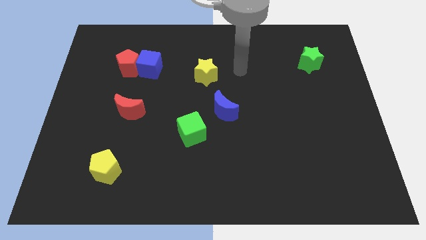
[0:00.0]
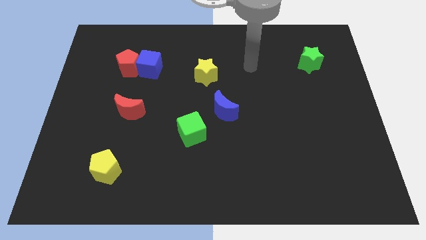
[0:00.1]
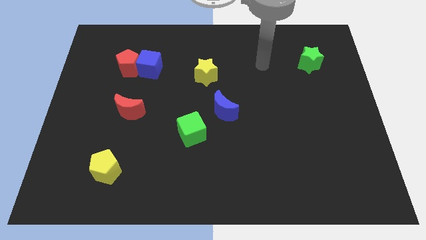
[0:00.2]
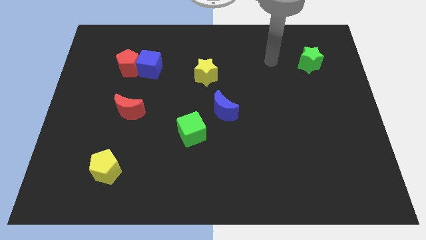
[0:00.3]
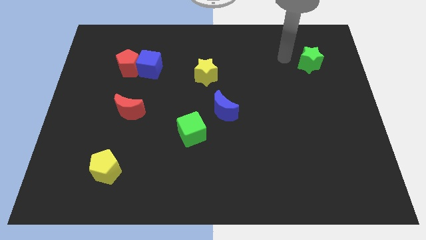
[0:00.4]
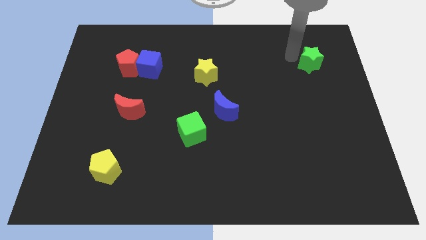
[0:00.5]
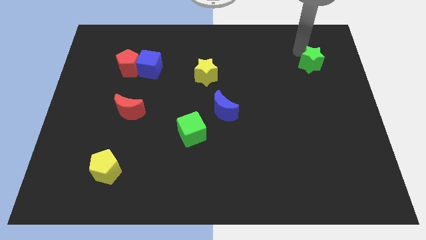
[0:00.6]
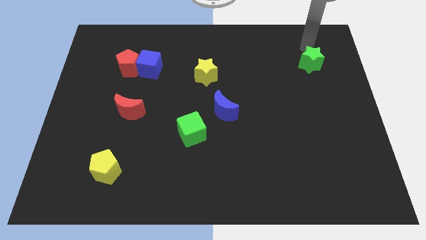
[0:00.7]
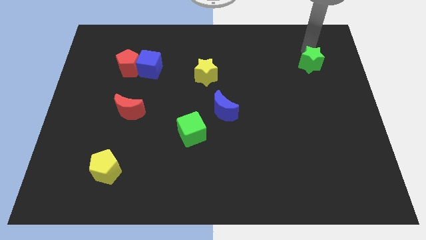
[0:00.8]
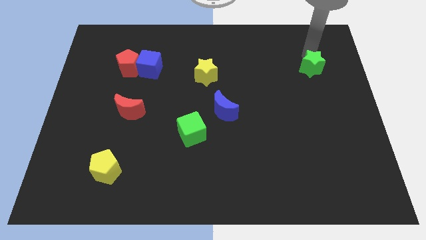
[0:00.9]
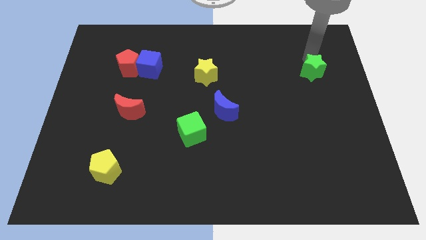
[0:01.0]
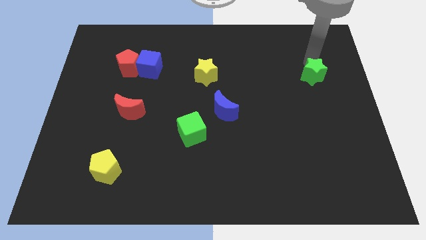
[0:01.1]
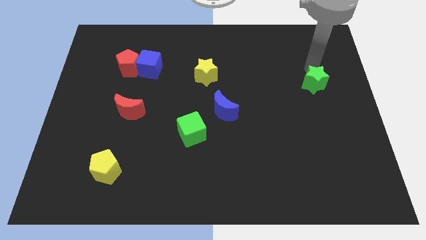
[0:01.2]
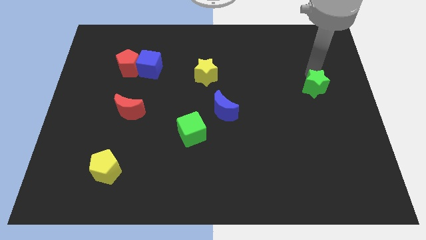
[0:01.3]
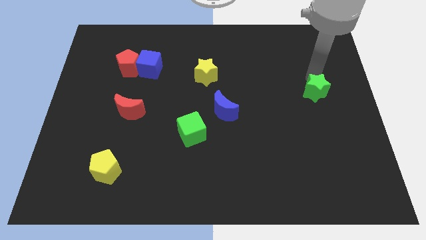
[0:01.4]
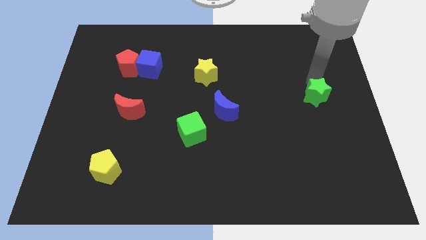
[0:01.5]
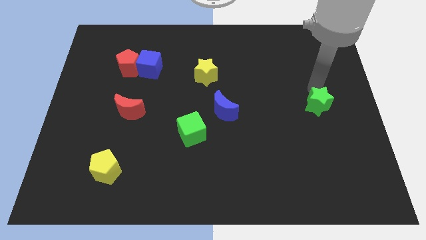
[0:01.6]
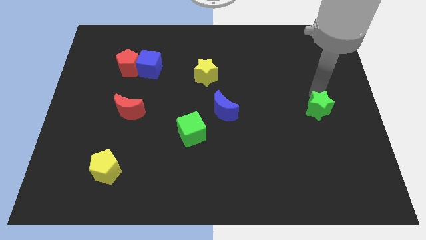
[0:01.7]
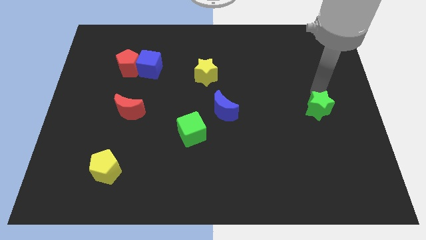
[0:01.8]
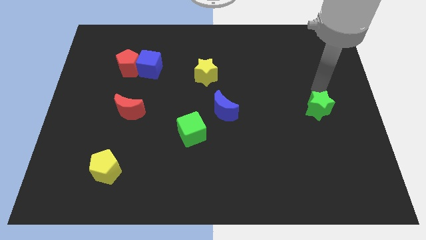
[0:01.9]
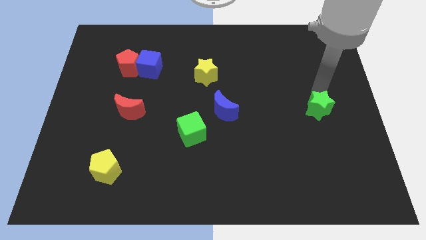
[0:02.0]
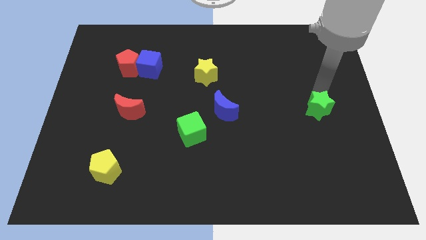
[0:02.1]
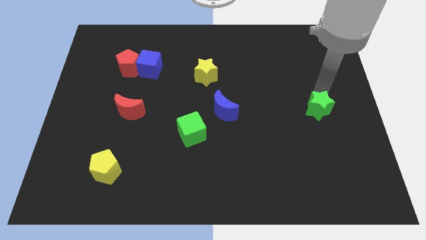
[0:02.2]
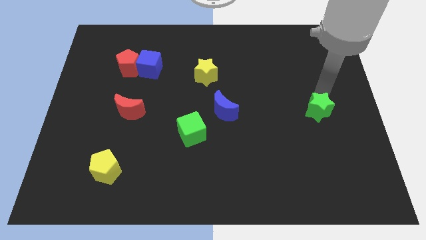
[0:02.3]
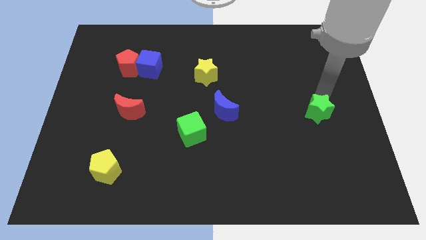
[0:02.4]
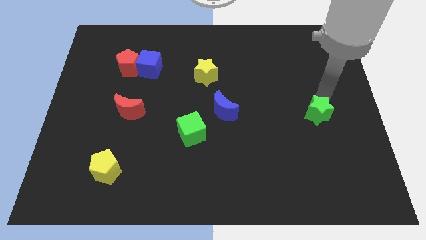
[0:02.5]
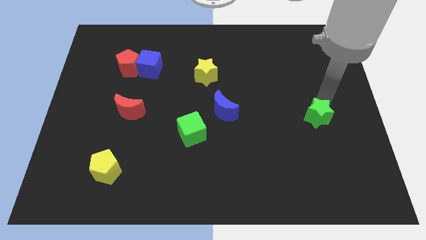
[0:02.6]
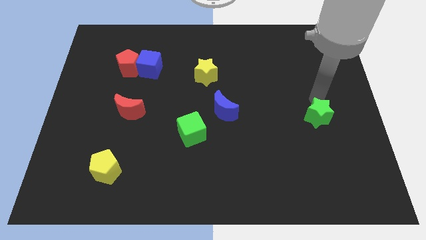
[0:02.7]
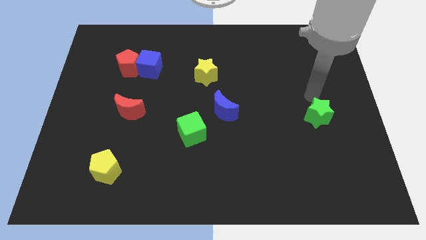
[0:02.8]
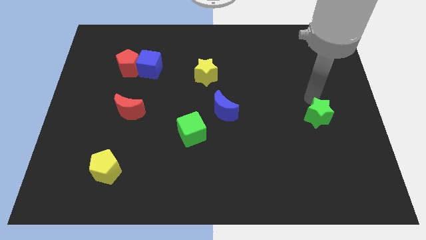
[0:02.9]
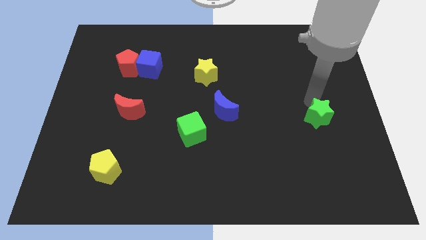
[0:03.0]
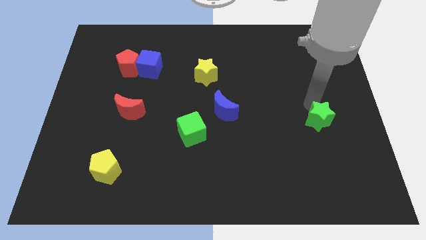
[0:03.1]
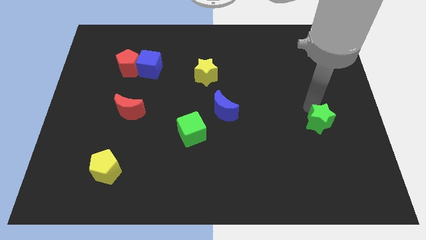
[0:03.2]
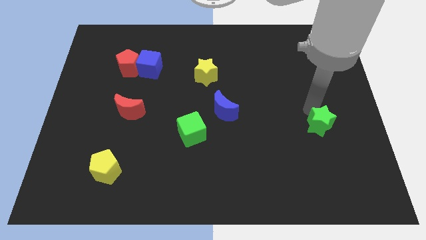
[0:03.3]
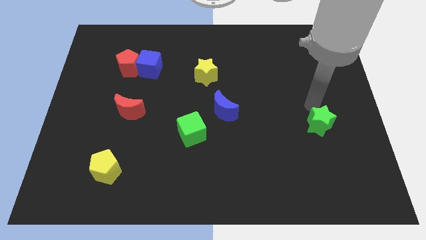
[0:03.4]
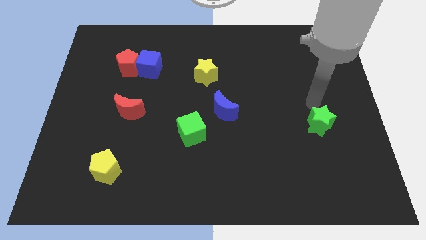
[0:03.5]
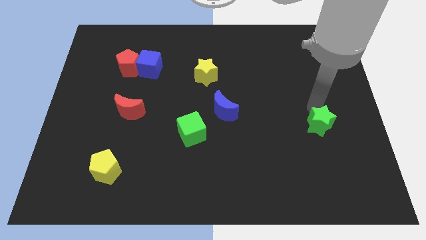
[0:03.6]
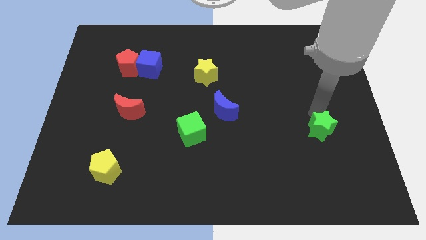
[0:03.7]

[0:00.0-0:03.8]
slide the green star down

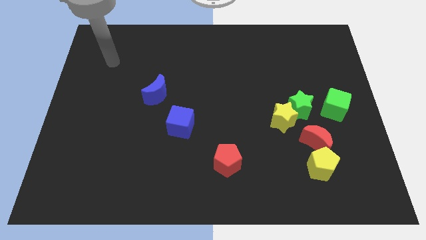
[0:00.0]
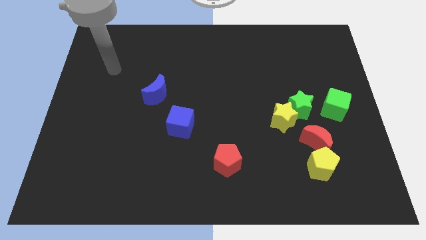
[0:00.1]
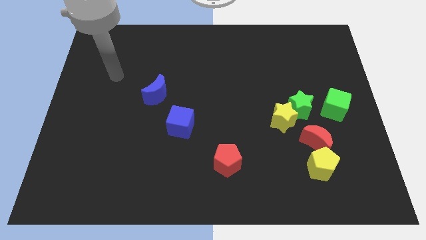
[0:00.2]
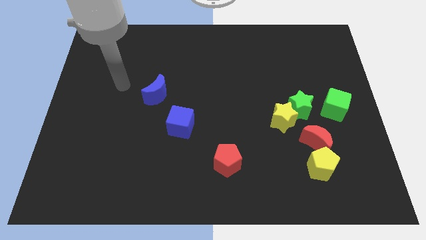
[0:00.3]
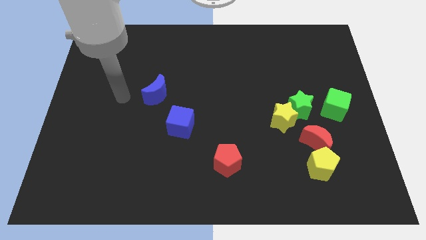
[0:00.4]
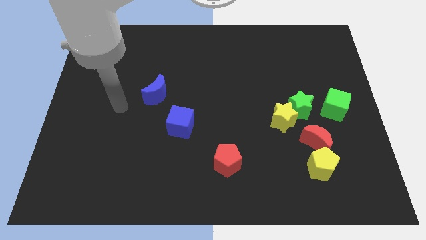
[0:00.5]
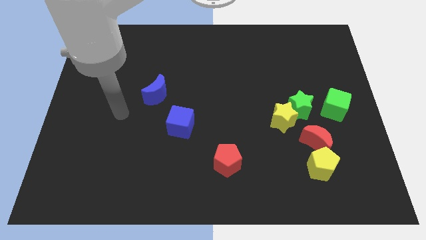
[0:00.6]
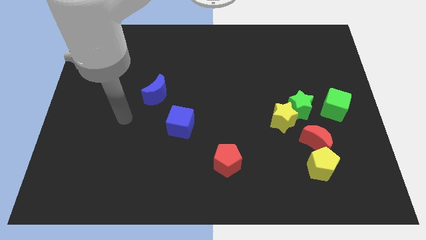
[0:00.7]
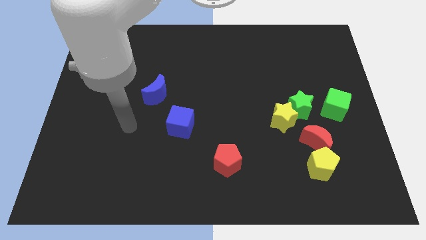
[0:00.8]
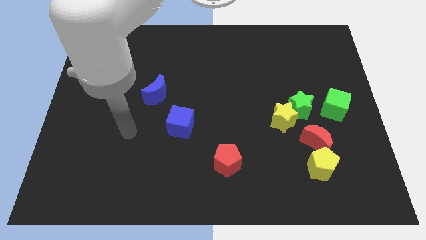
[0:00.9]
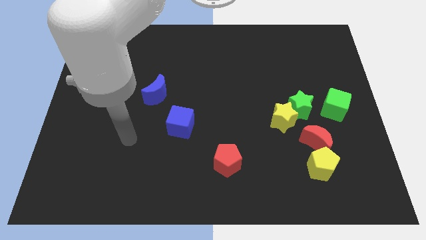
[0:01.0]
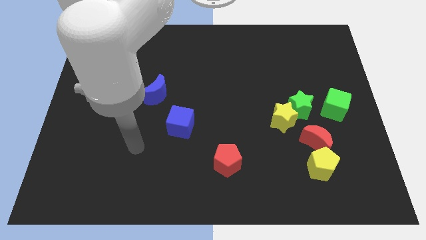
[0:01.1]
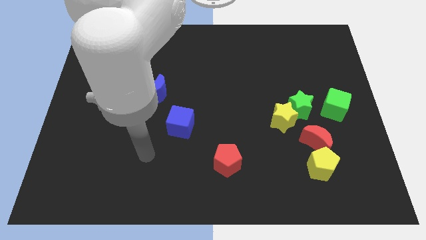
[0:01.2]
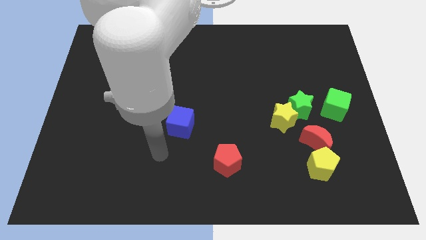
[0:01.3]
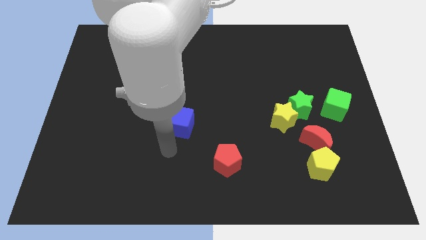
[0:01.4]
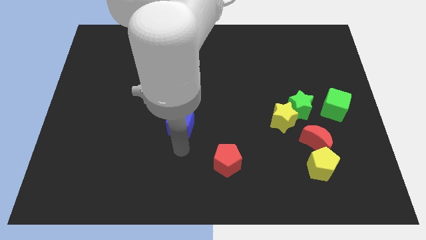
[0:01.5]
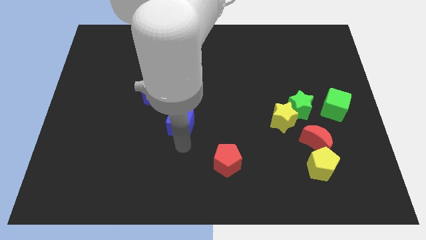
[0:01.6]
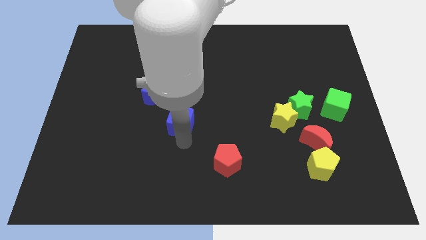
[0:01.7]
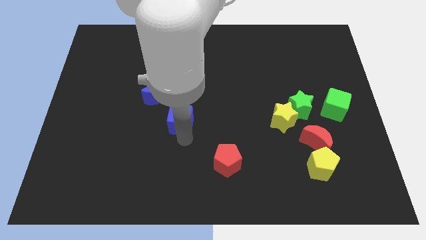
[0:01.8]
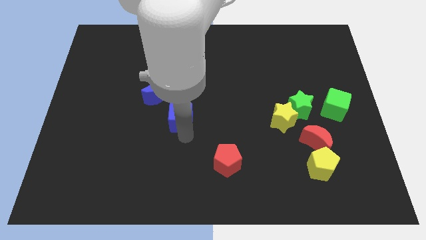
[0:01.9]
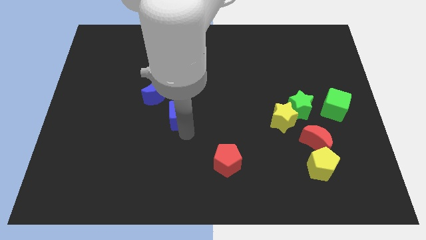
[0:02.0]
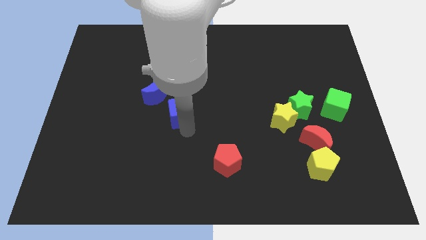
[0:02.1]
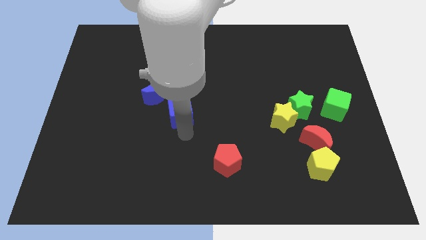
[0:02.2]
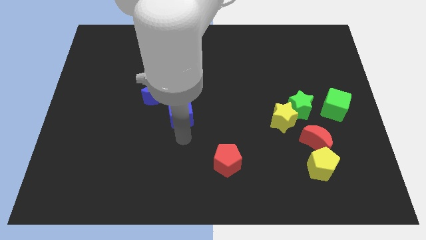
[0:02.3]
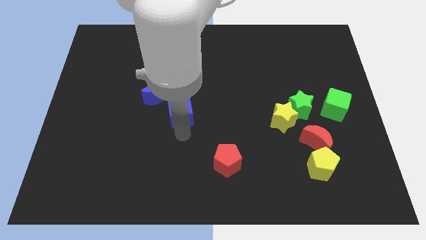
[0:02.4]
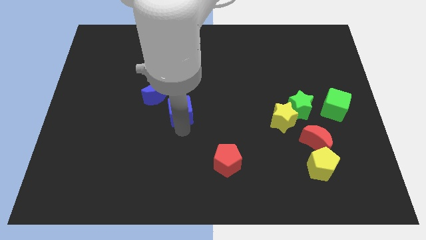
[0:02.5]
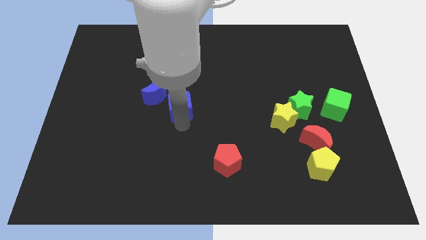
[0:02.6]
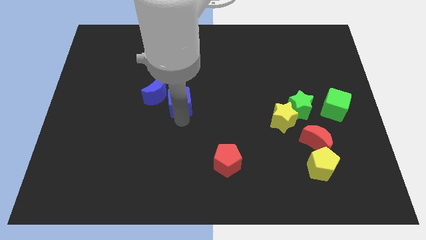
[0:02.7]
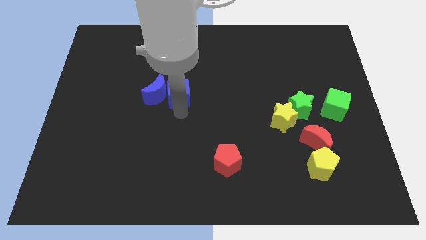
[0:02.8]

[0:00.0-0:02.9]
push the blue cube upwards a little

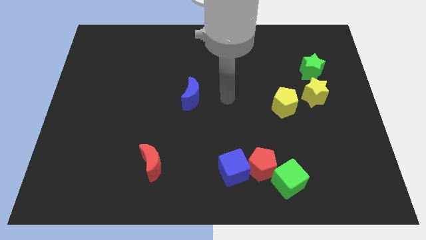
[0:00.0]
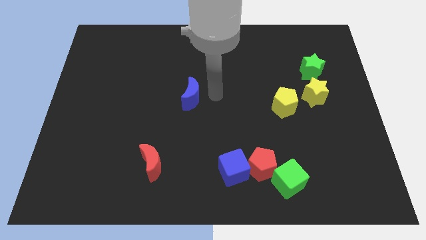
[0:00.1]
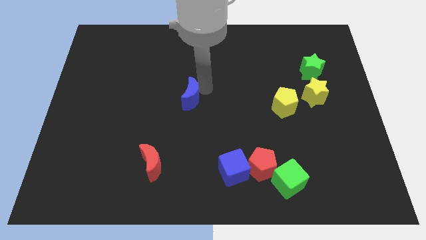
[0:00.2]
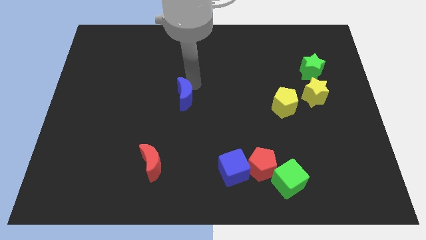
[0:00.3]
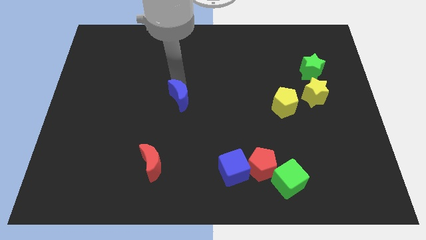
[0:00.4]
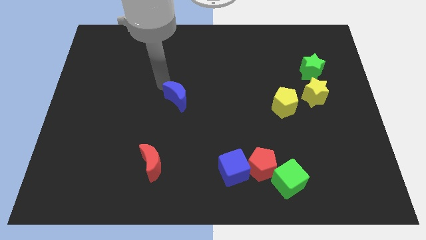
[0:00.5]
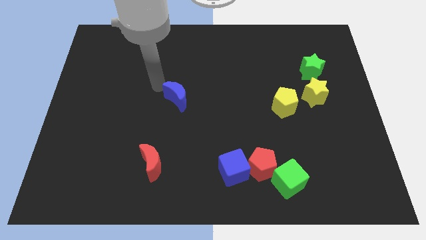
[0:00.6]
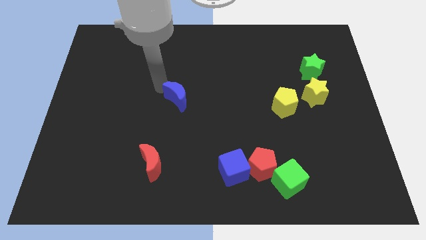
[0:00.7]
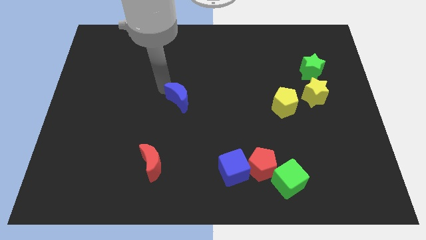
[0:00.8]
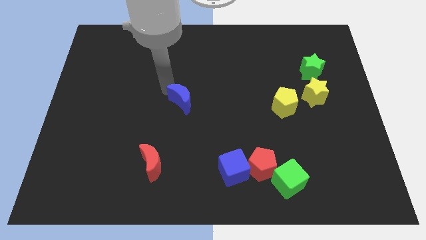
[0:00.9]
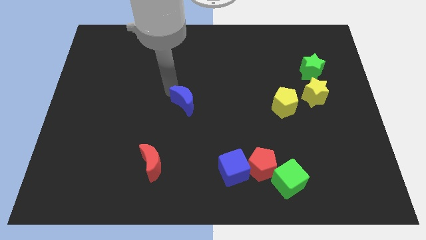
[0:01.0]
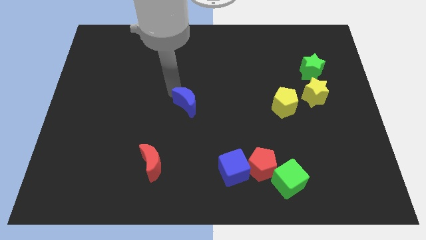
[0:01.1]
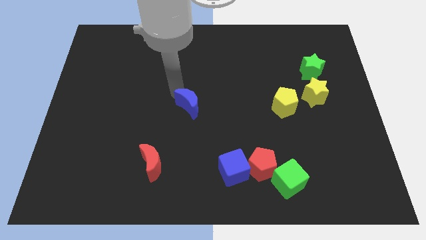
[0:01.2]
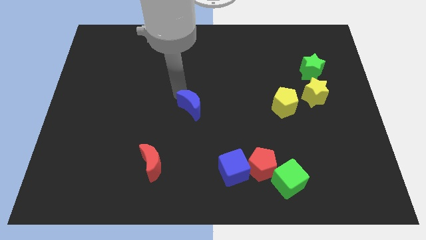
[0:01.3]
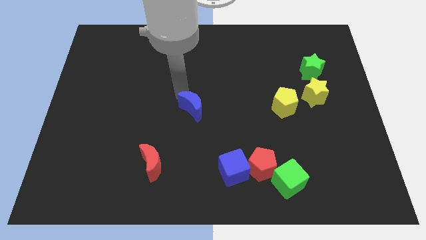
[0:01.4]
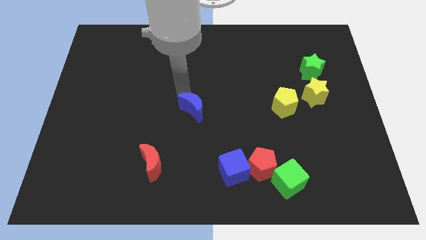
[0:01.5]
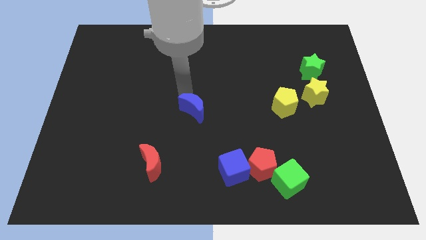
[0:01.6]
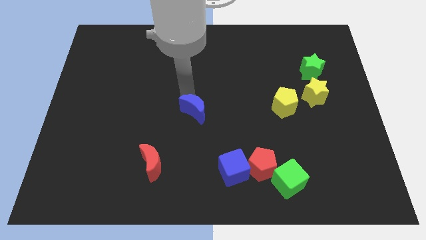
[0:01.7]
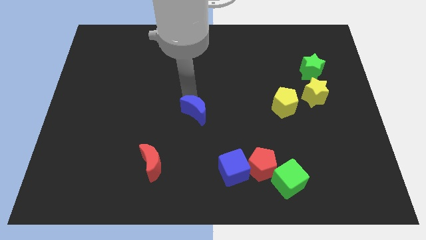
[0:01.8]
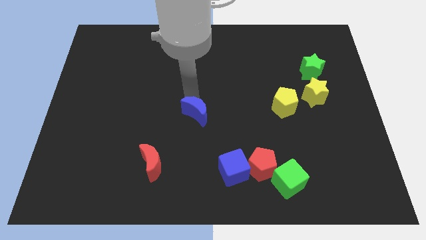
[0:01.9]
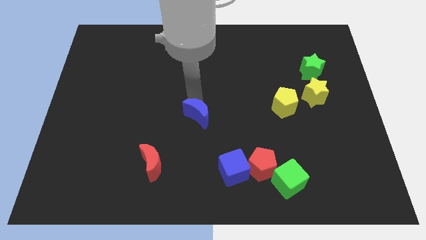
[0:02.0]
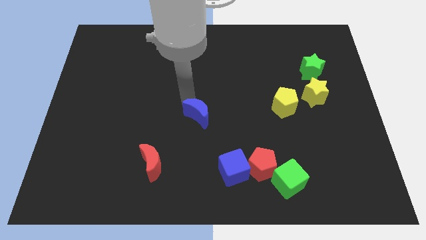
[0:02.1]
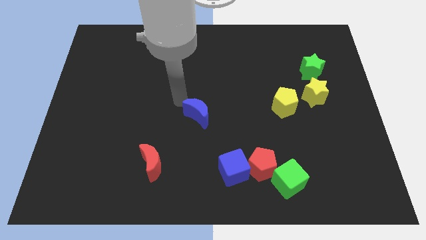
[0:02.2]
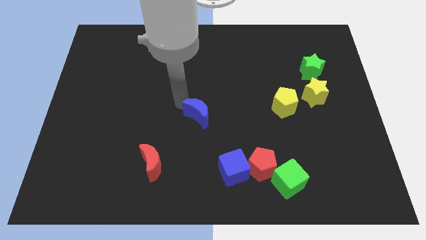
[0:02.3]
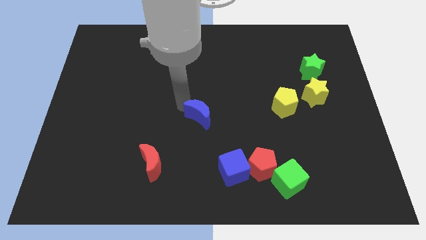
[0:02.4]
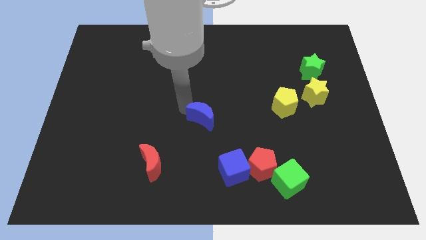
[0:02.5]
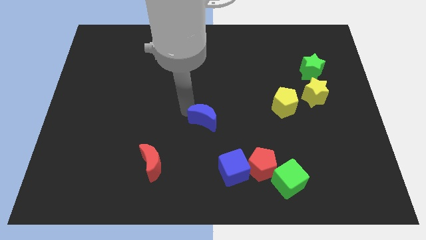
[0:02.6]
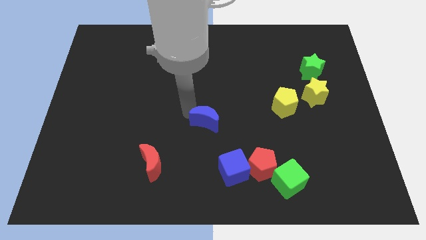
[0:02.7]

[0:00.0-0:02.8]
move the blue moon a little downwards and then to the right
